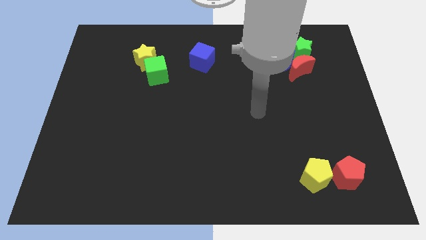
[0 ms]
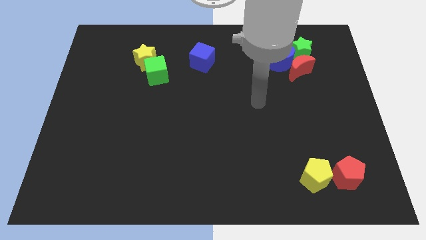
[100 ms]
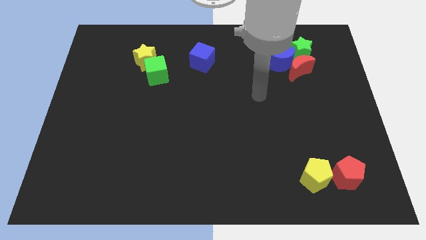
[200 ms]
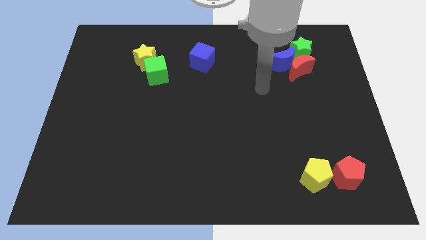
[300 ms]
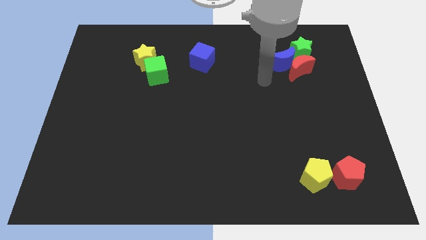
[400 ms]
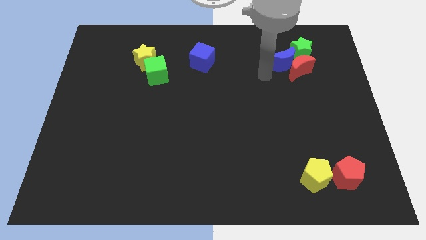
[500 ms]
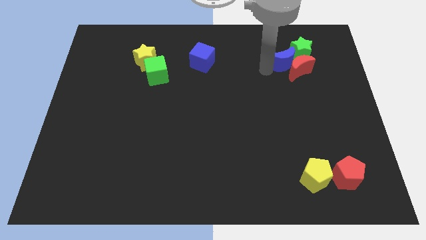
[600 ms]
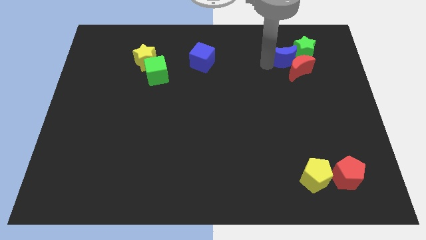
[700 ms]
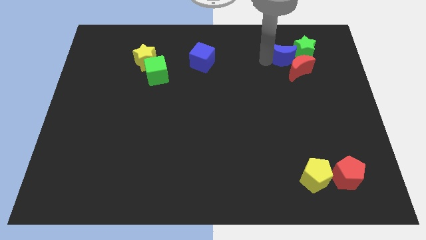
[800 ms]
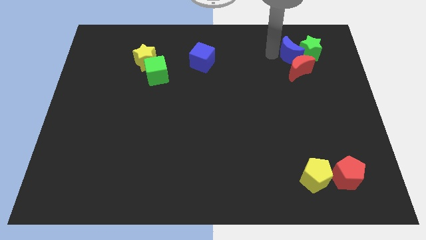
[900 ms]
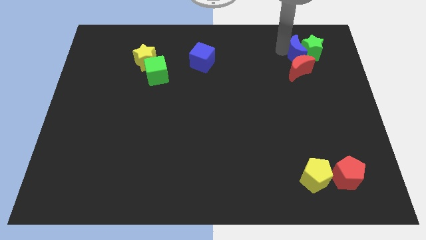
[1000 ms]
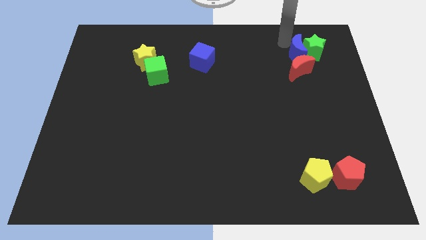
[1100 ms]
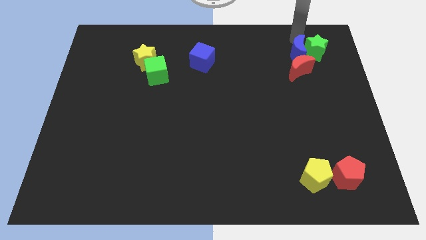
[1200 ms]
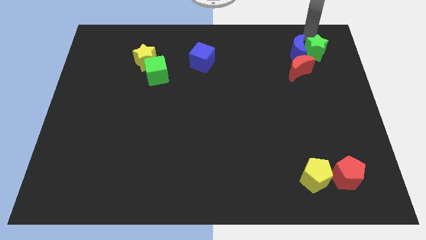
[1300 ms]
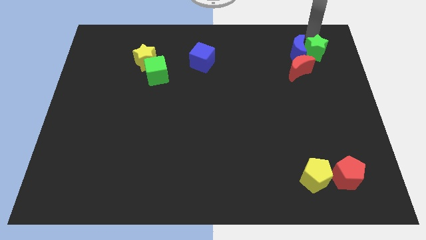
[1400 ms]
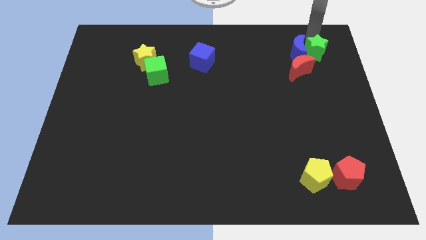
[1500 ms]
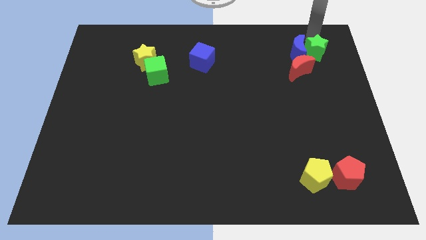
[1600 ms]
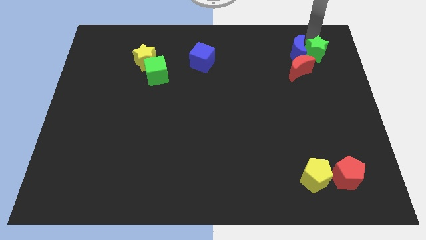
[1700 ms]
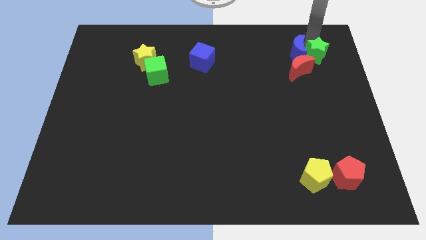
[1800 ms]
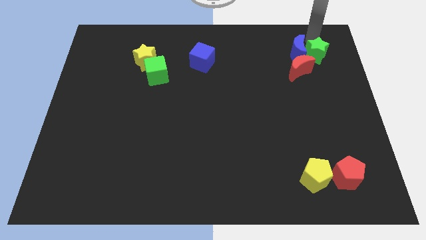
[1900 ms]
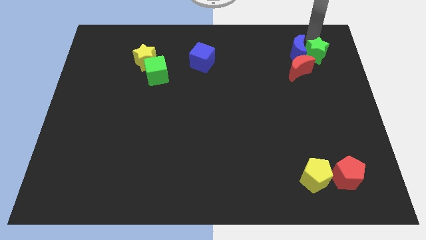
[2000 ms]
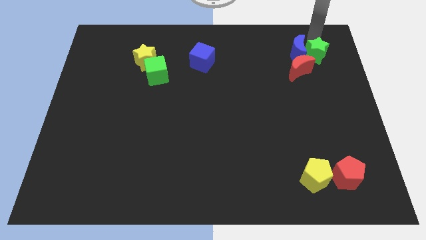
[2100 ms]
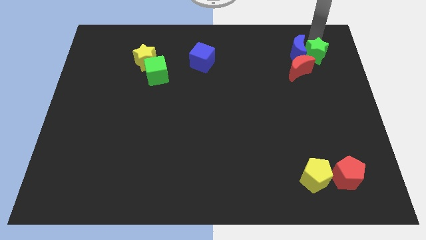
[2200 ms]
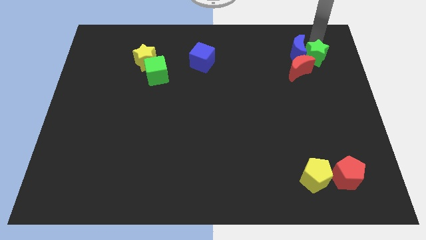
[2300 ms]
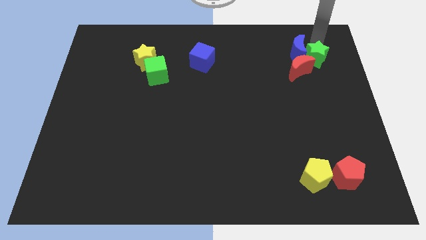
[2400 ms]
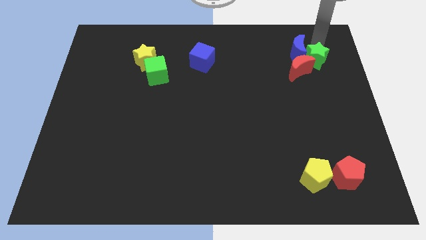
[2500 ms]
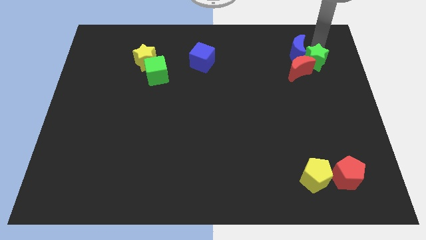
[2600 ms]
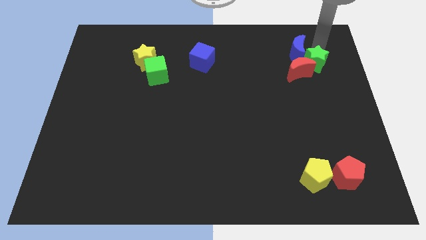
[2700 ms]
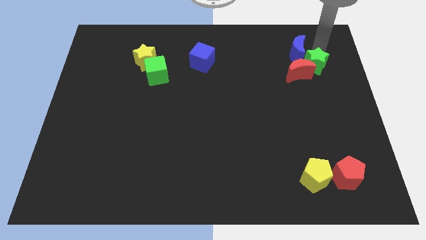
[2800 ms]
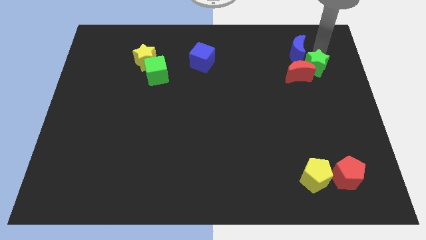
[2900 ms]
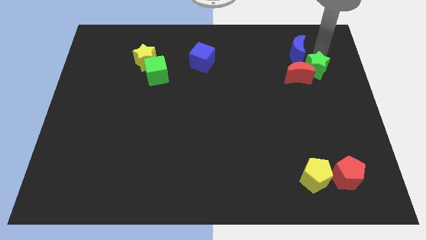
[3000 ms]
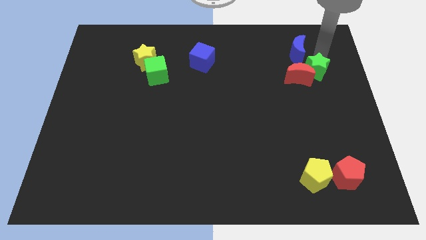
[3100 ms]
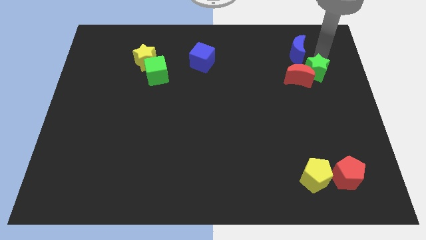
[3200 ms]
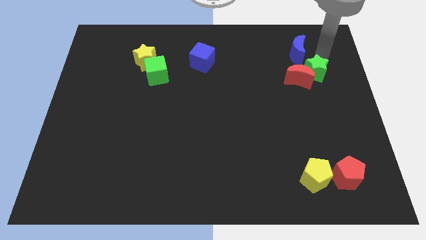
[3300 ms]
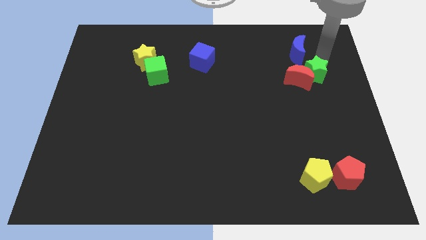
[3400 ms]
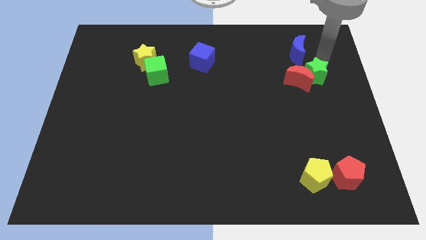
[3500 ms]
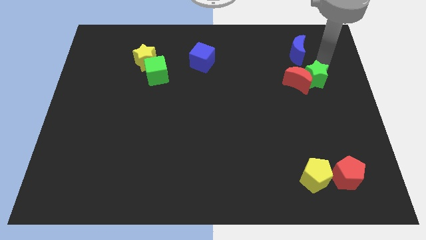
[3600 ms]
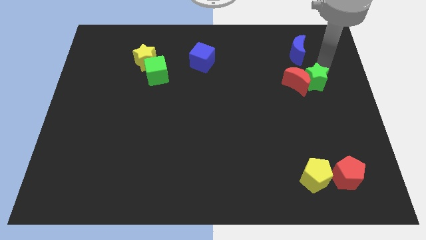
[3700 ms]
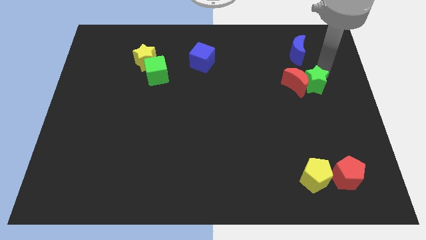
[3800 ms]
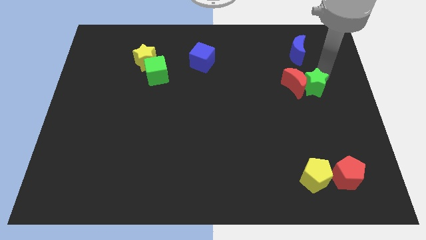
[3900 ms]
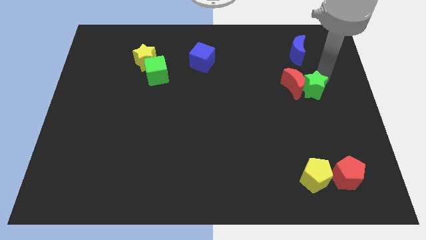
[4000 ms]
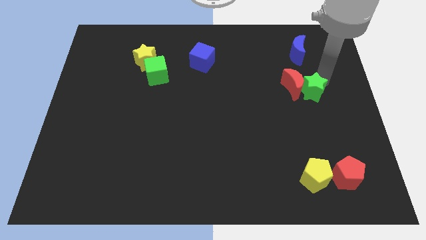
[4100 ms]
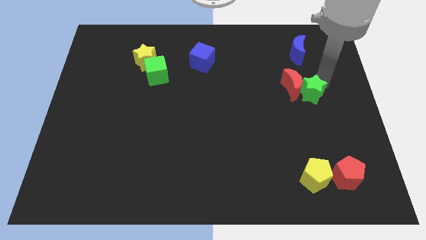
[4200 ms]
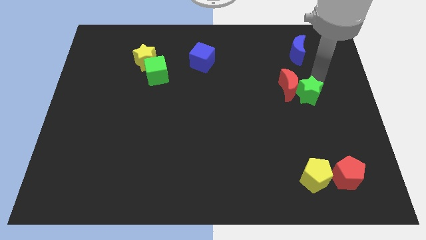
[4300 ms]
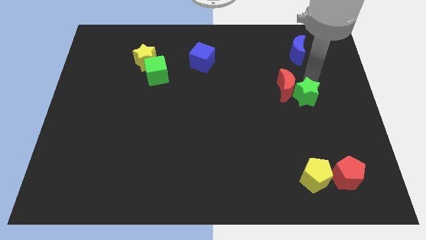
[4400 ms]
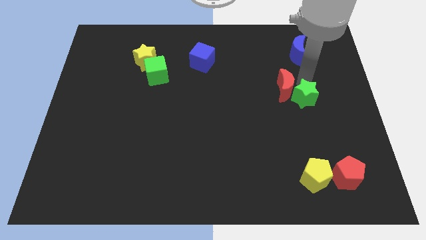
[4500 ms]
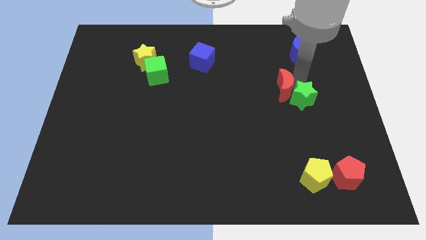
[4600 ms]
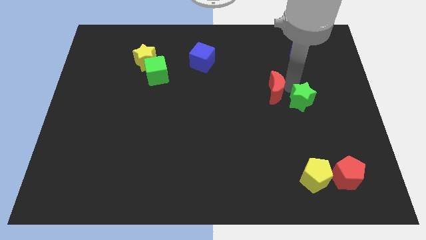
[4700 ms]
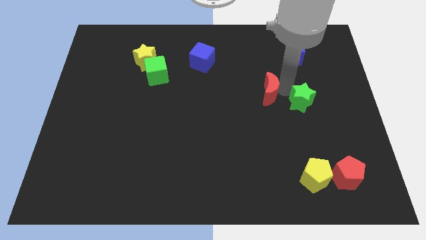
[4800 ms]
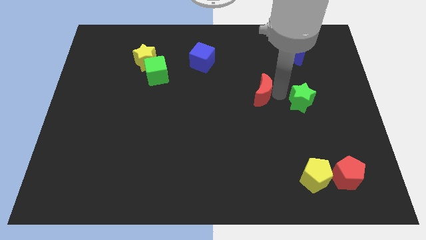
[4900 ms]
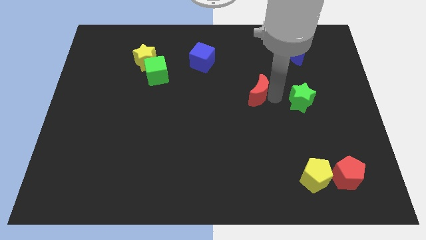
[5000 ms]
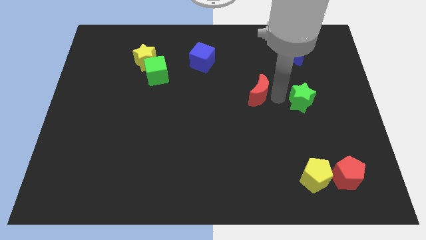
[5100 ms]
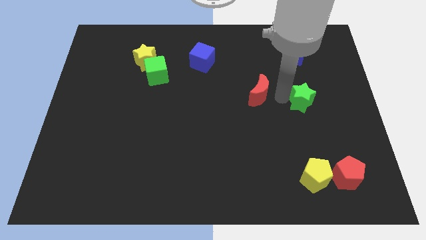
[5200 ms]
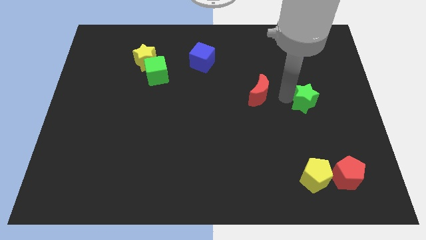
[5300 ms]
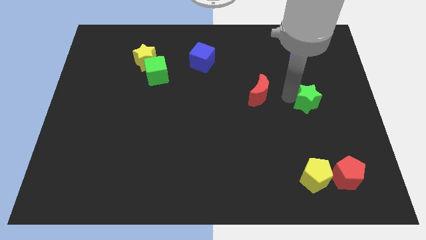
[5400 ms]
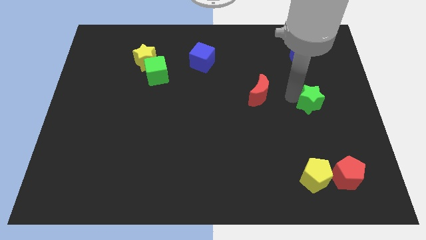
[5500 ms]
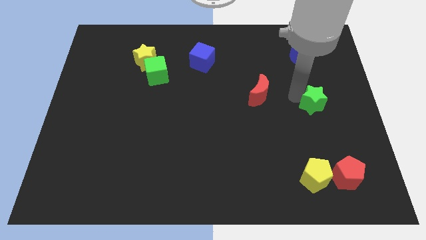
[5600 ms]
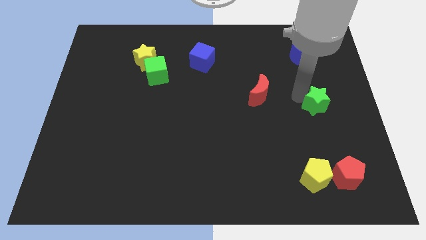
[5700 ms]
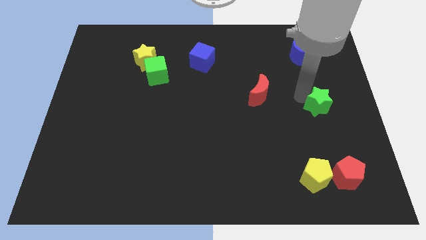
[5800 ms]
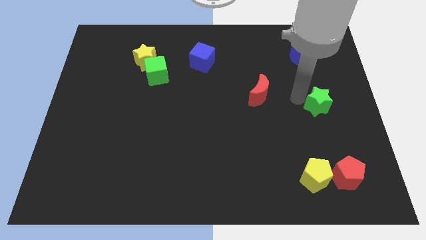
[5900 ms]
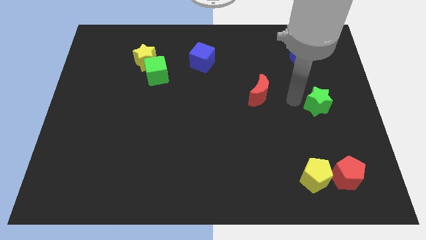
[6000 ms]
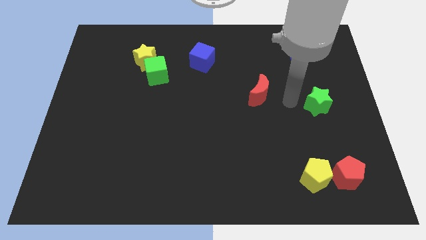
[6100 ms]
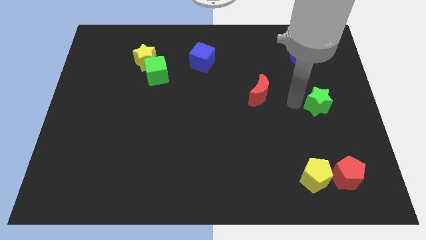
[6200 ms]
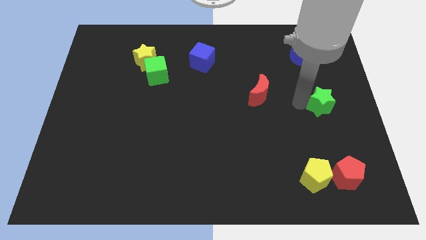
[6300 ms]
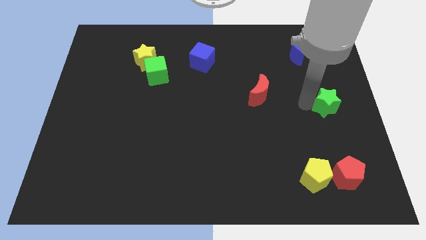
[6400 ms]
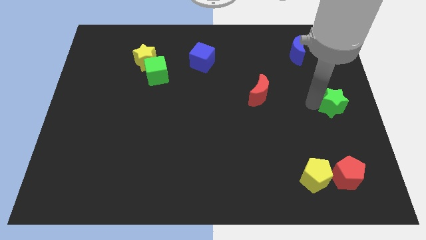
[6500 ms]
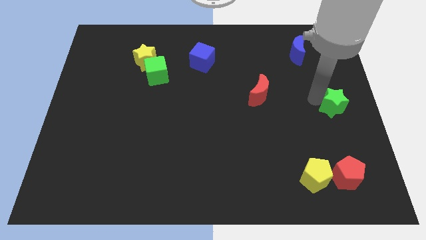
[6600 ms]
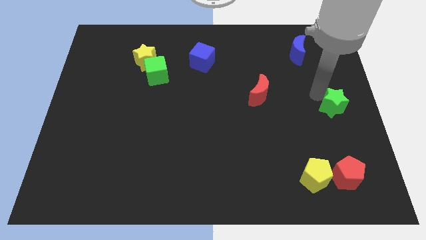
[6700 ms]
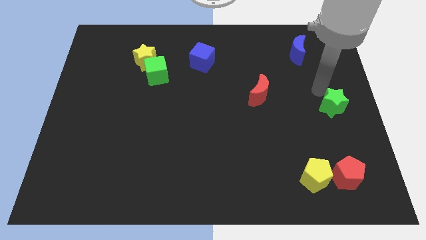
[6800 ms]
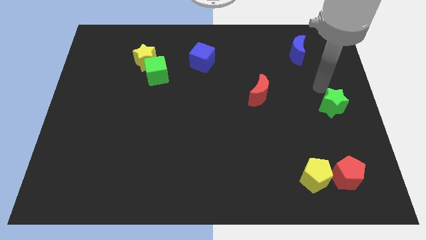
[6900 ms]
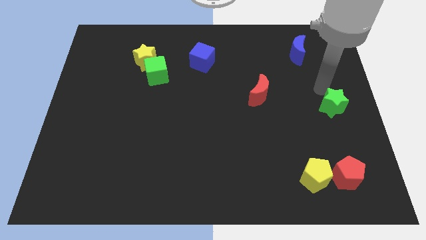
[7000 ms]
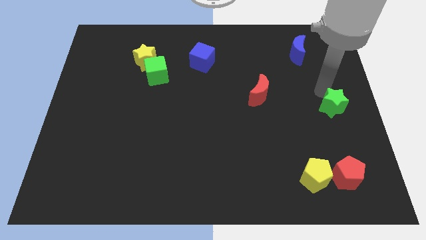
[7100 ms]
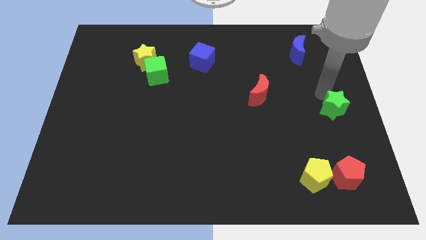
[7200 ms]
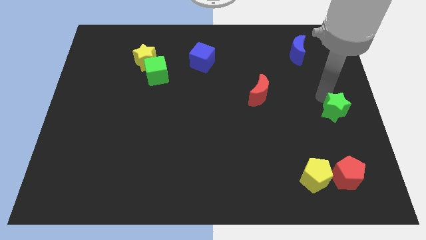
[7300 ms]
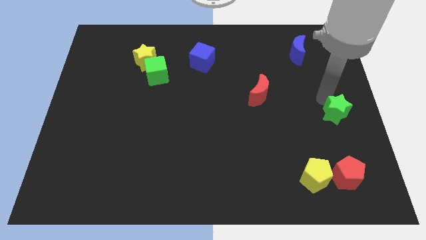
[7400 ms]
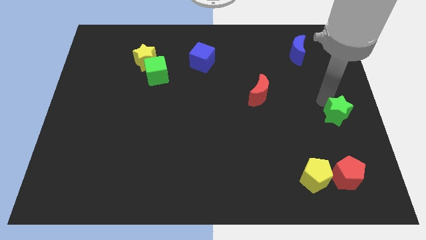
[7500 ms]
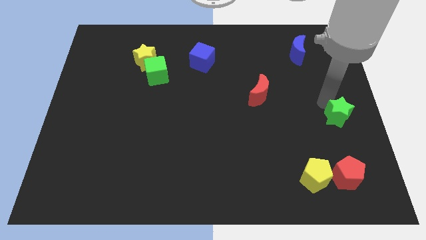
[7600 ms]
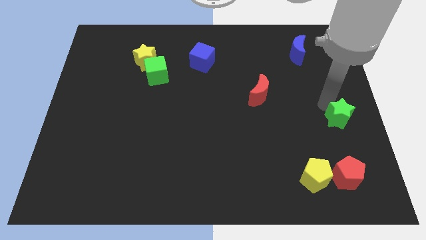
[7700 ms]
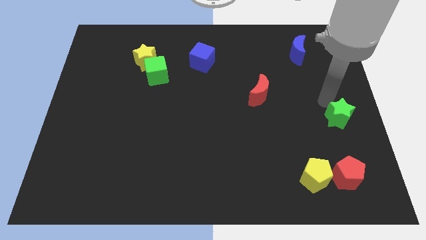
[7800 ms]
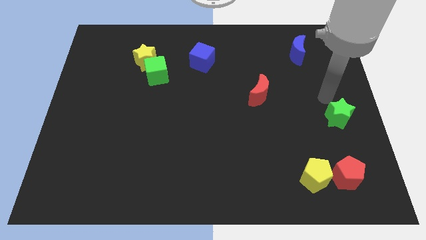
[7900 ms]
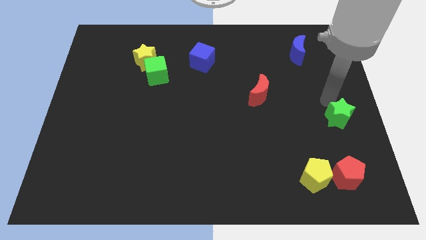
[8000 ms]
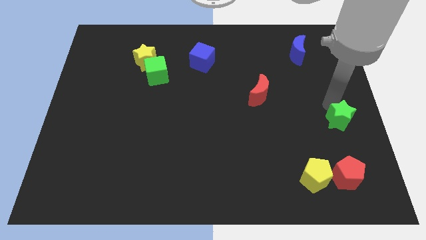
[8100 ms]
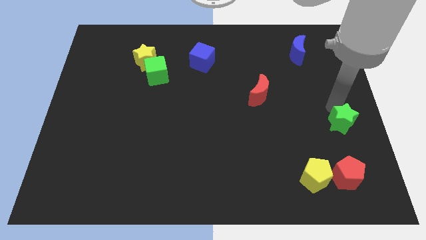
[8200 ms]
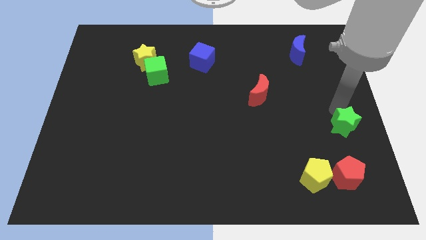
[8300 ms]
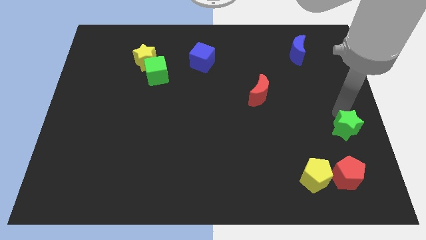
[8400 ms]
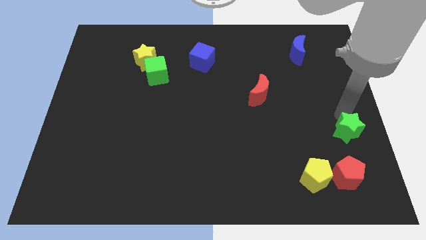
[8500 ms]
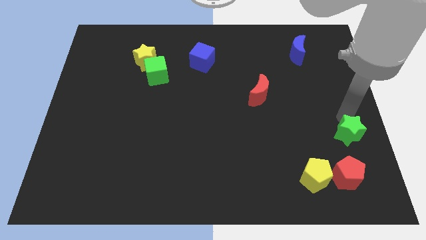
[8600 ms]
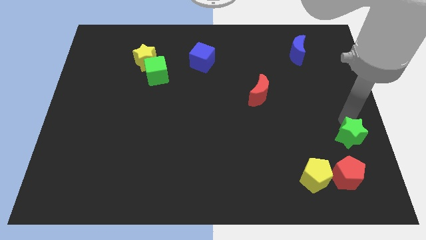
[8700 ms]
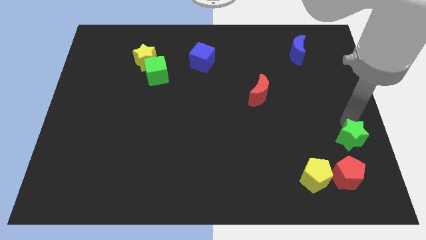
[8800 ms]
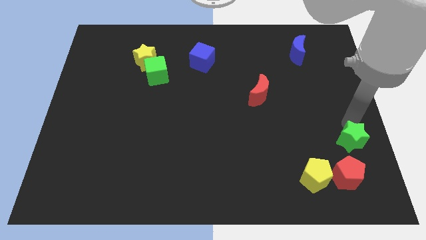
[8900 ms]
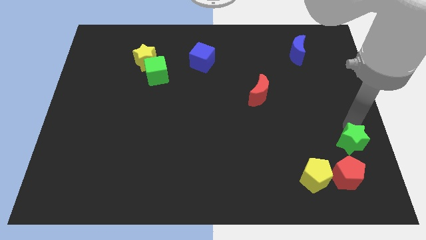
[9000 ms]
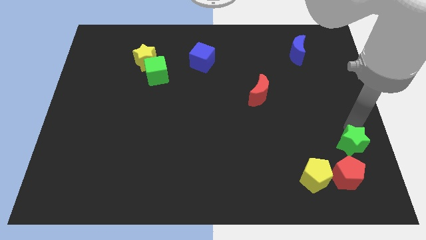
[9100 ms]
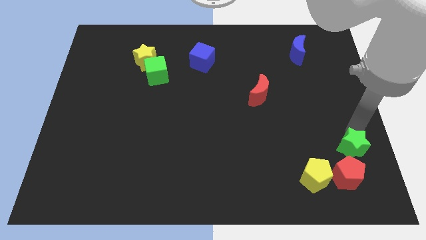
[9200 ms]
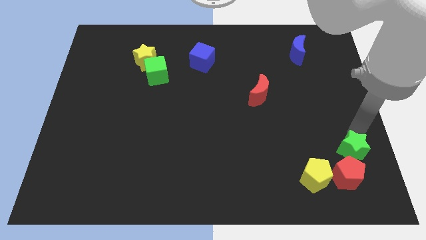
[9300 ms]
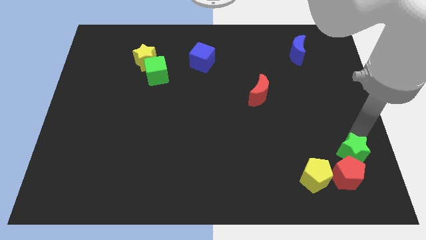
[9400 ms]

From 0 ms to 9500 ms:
move the green star next to the red pentagon
